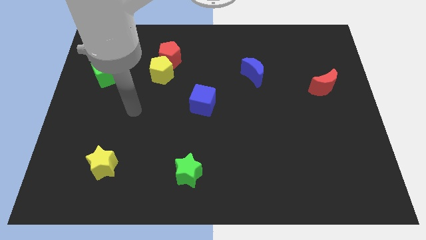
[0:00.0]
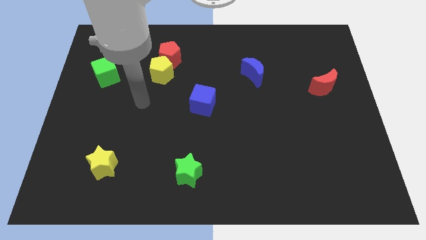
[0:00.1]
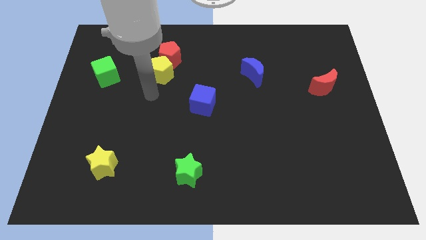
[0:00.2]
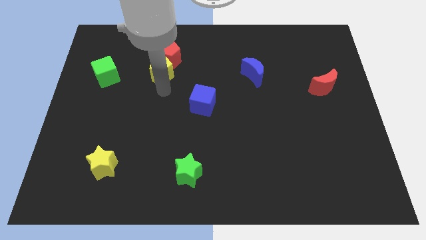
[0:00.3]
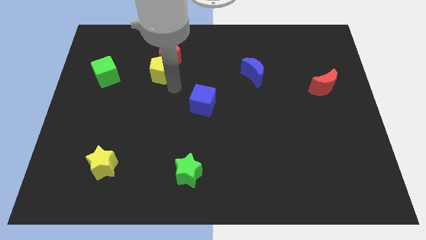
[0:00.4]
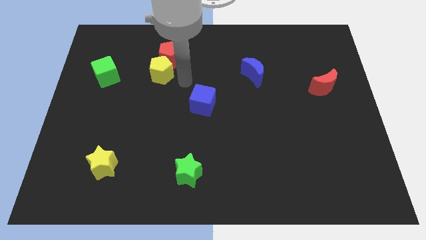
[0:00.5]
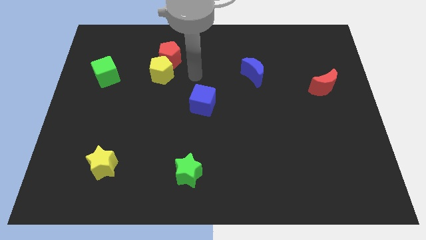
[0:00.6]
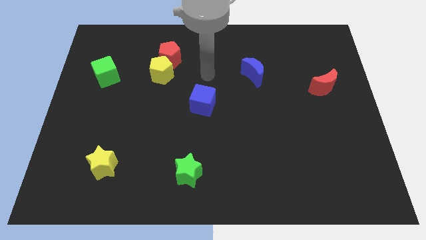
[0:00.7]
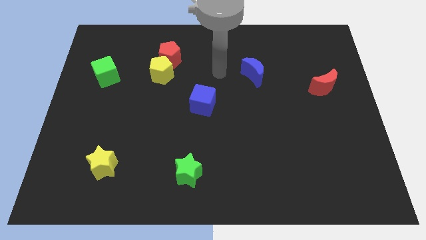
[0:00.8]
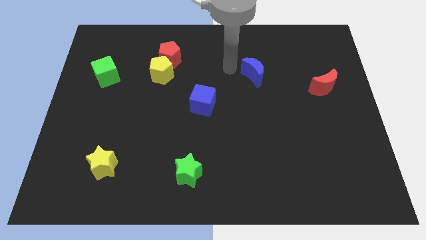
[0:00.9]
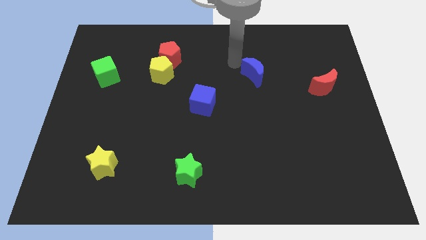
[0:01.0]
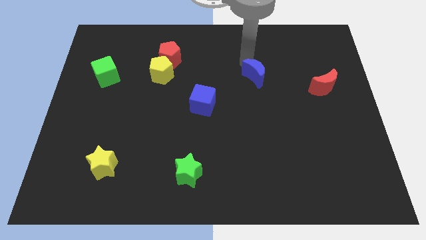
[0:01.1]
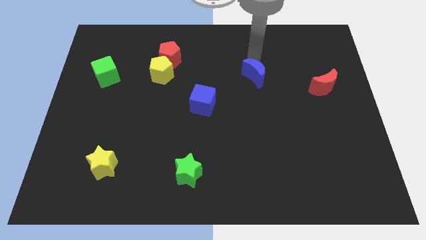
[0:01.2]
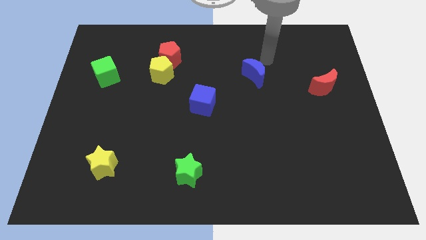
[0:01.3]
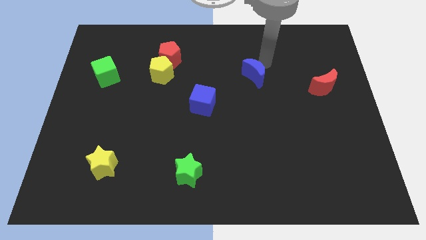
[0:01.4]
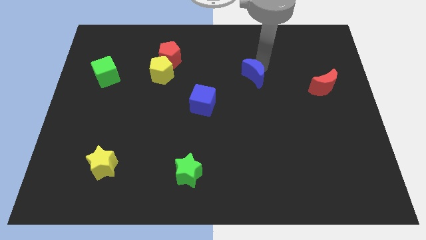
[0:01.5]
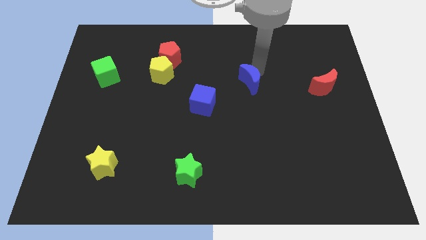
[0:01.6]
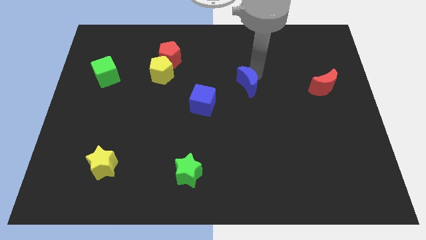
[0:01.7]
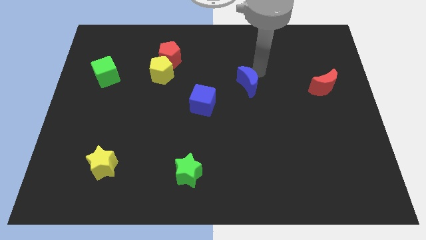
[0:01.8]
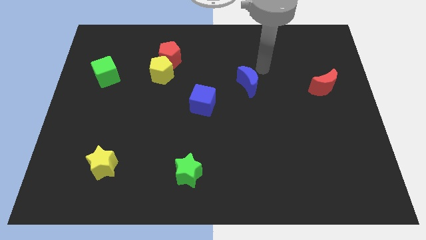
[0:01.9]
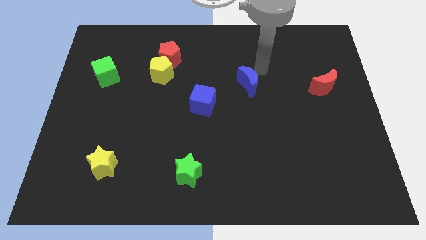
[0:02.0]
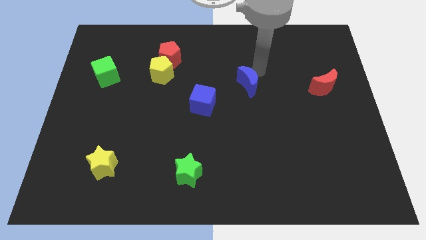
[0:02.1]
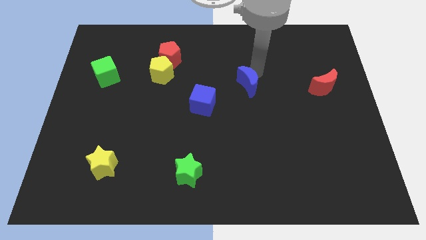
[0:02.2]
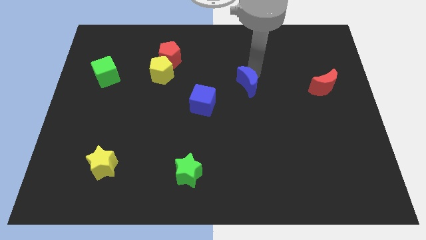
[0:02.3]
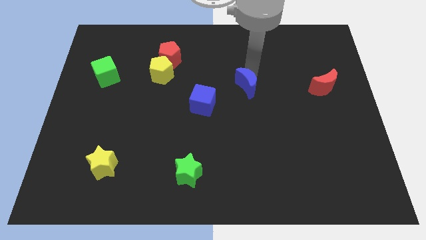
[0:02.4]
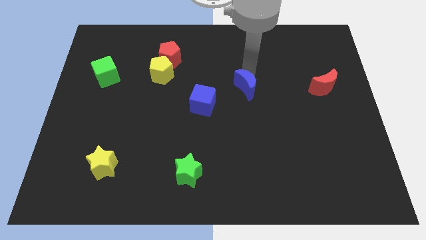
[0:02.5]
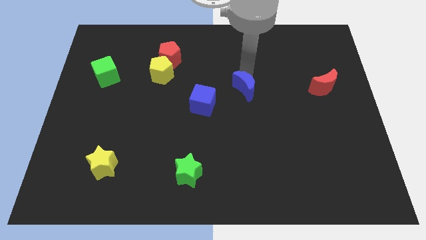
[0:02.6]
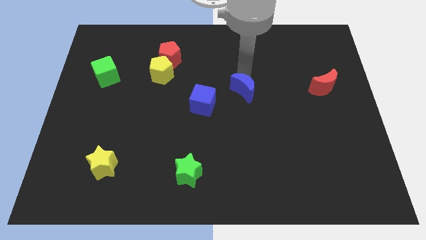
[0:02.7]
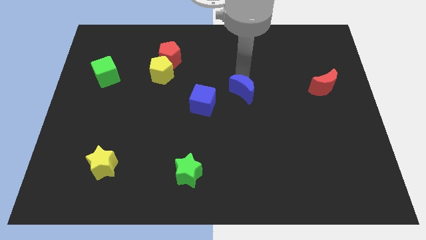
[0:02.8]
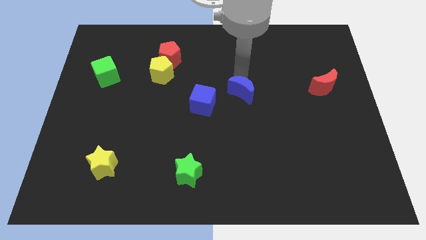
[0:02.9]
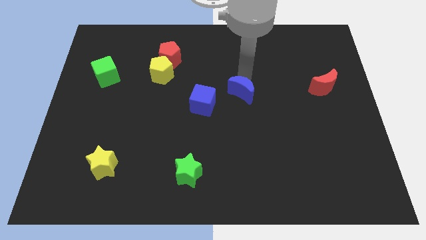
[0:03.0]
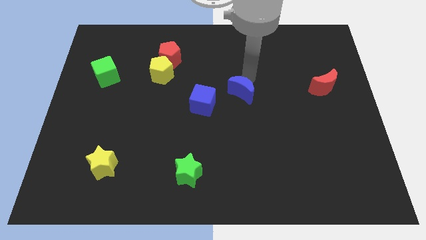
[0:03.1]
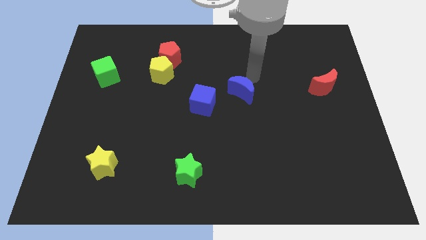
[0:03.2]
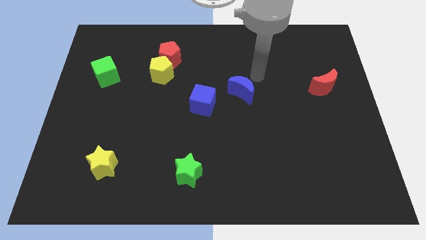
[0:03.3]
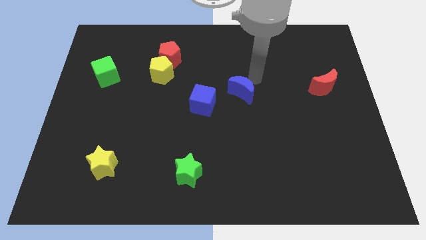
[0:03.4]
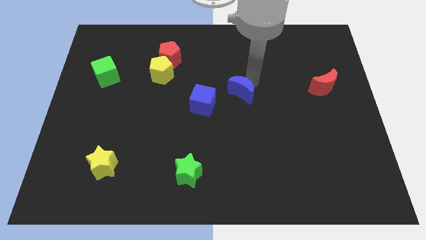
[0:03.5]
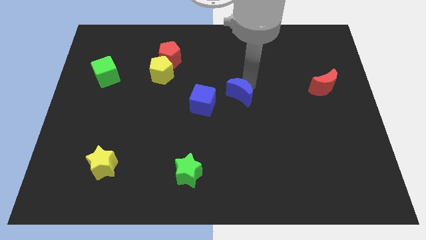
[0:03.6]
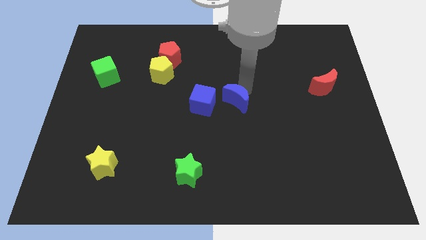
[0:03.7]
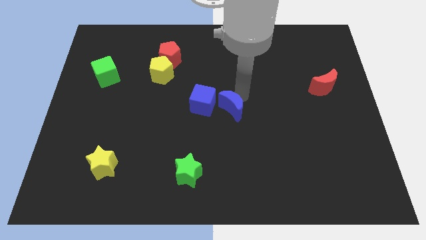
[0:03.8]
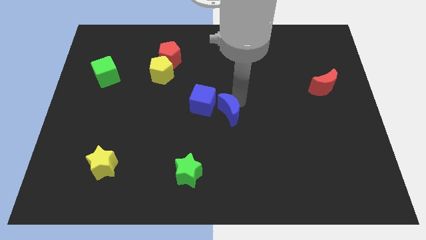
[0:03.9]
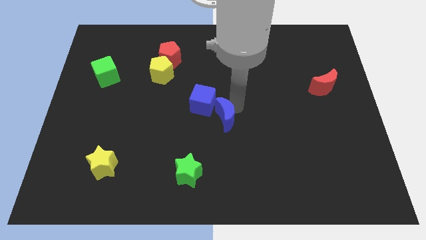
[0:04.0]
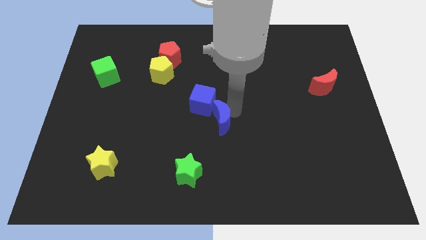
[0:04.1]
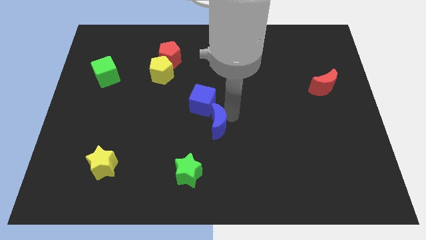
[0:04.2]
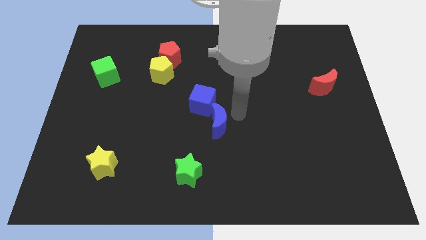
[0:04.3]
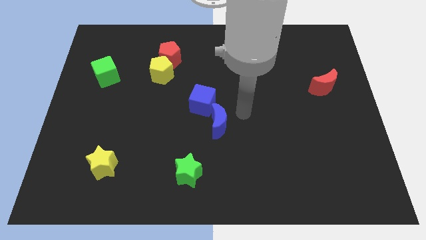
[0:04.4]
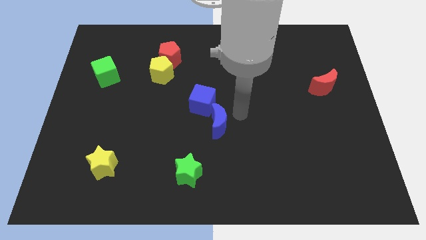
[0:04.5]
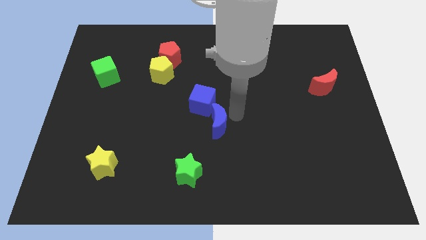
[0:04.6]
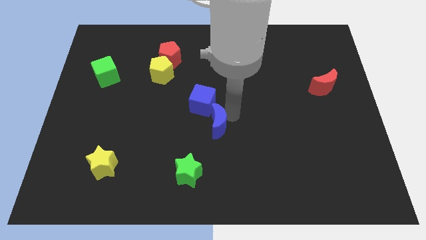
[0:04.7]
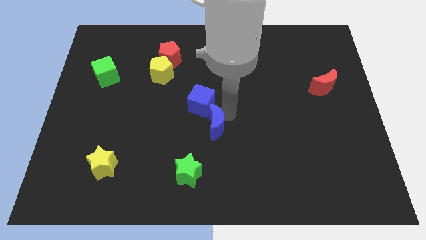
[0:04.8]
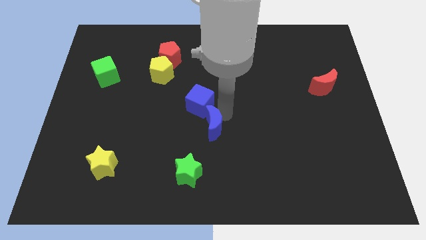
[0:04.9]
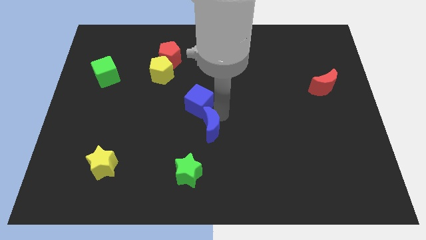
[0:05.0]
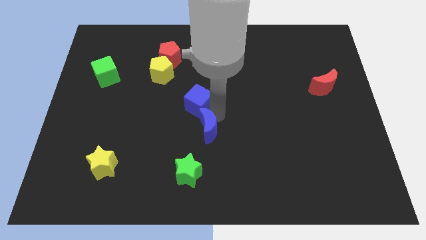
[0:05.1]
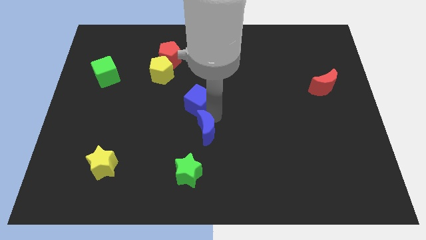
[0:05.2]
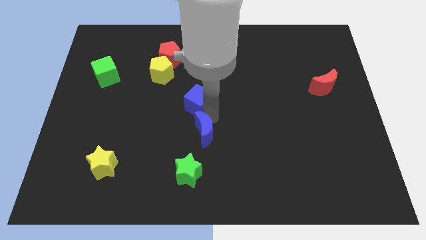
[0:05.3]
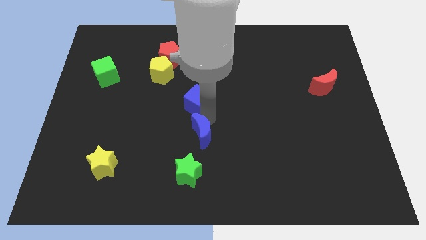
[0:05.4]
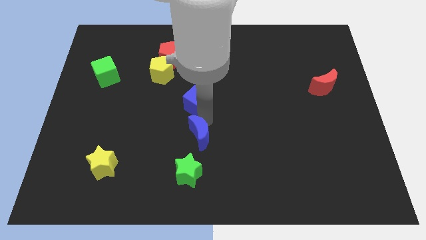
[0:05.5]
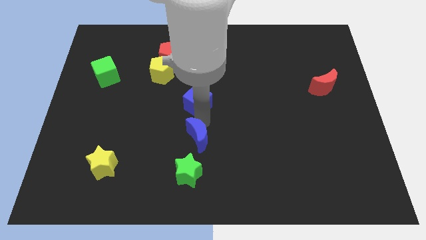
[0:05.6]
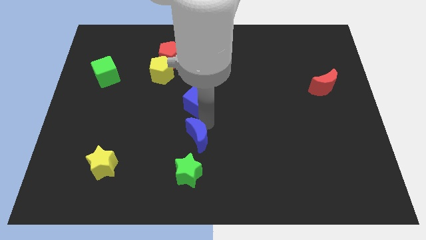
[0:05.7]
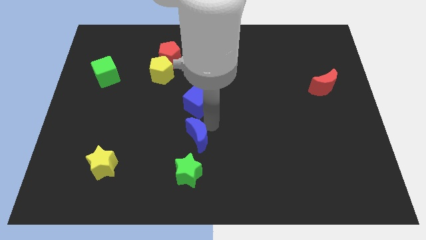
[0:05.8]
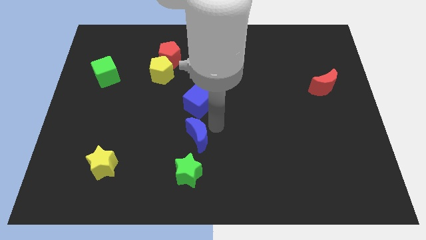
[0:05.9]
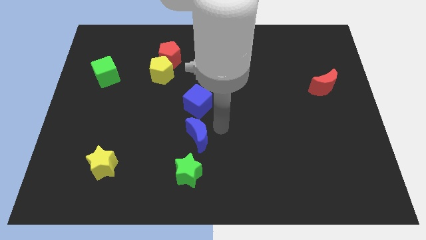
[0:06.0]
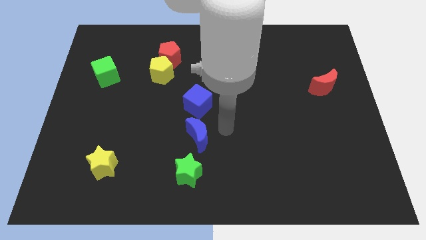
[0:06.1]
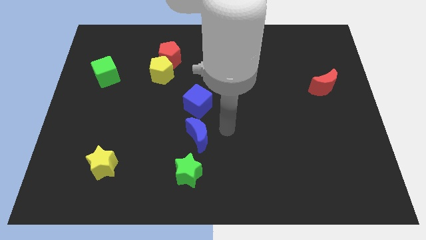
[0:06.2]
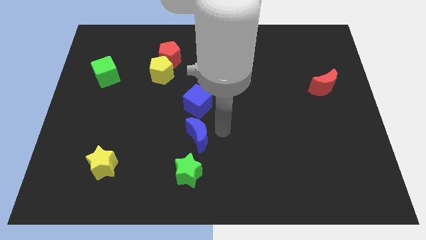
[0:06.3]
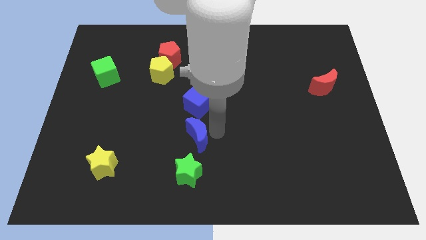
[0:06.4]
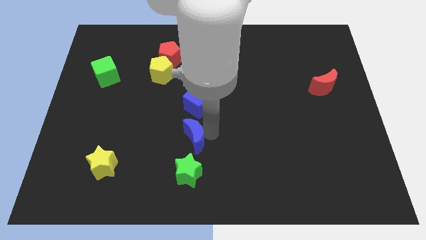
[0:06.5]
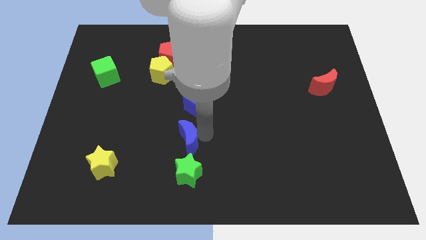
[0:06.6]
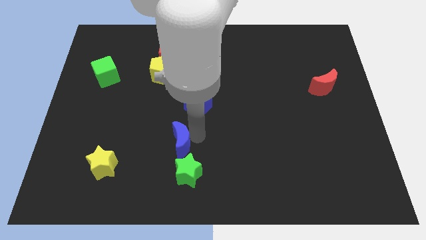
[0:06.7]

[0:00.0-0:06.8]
put the blue moon diagonally up and to the left of the green star
